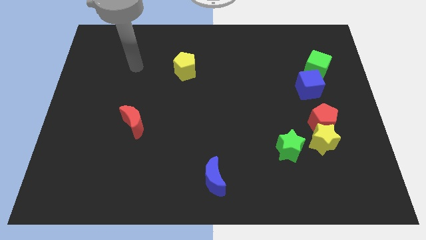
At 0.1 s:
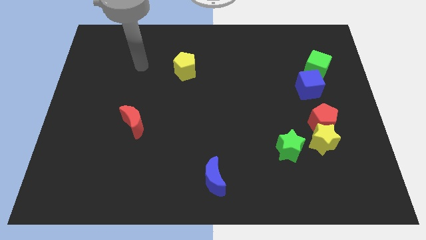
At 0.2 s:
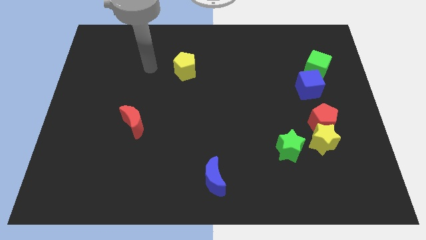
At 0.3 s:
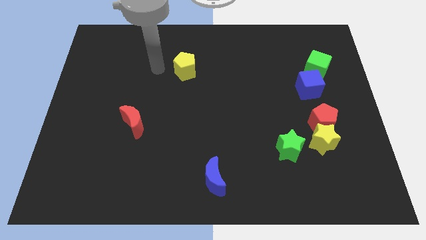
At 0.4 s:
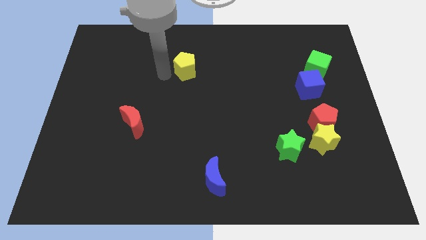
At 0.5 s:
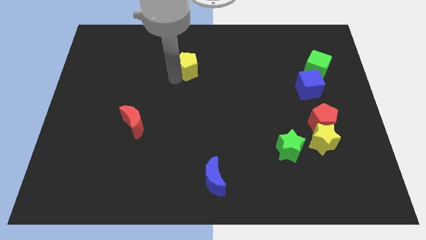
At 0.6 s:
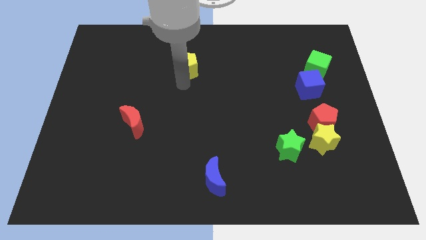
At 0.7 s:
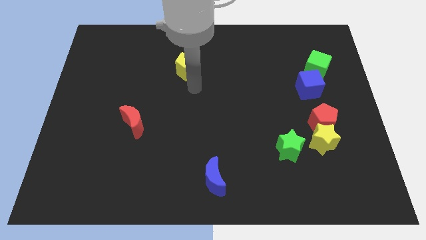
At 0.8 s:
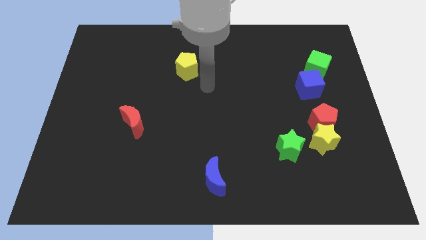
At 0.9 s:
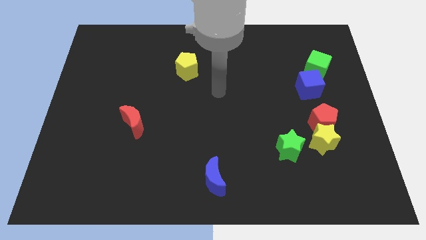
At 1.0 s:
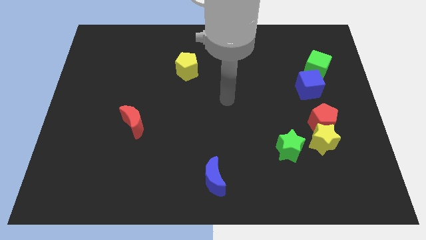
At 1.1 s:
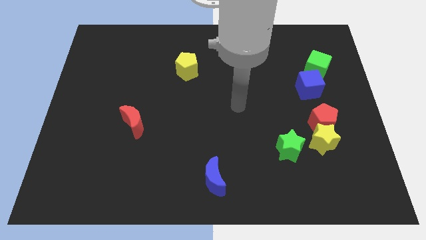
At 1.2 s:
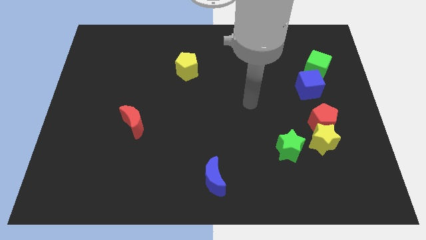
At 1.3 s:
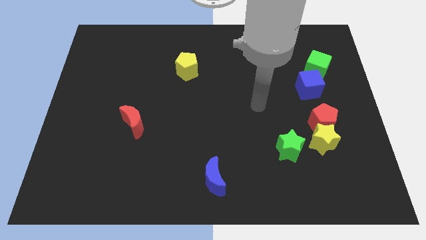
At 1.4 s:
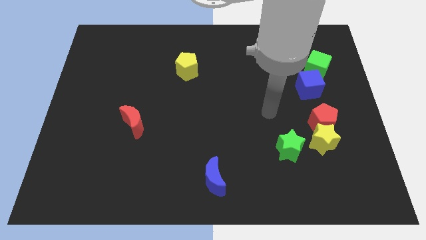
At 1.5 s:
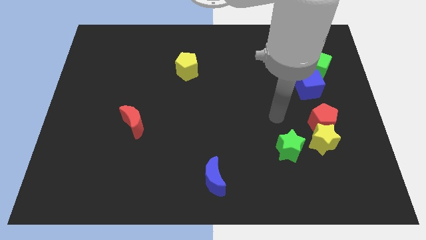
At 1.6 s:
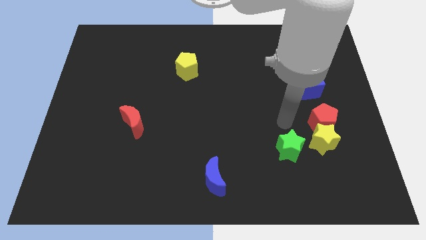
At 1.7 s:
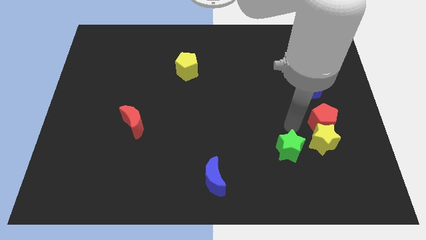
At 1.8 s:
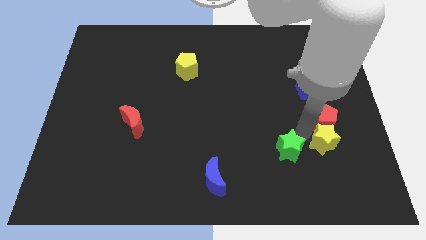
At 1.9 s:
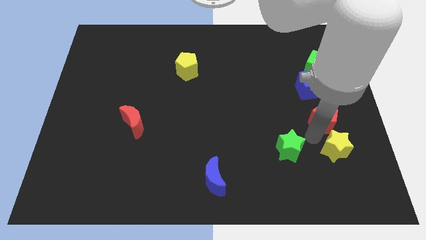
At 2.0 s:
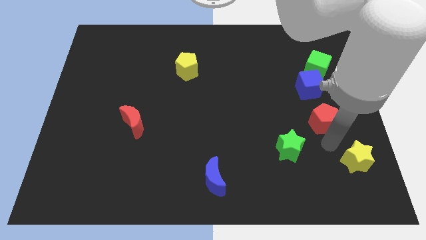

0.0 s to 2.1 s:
separate the red pentagon from the yellow star

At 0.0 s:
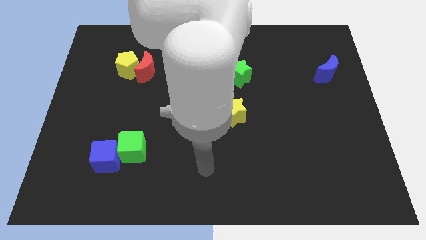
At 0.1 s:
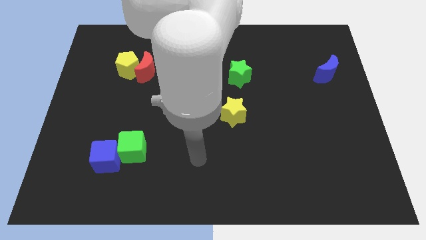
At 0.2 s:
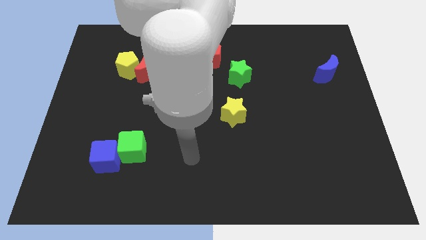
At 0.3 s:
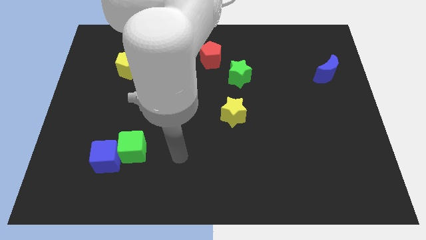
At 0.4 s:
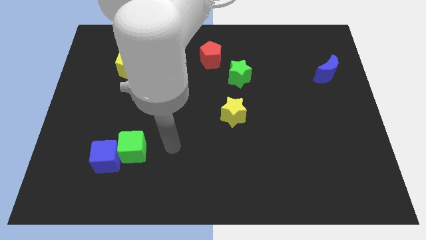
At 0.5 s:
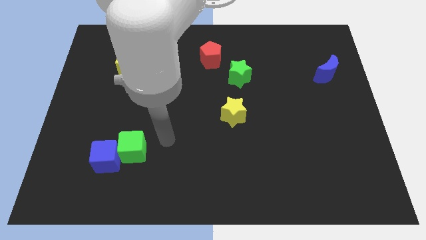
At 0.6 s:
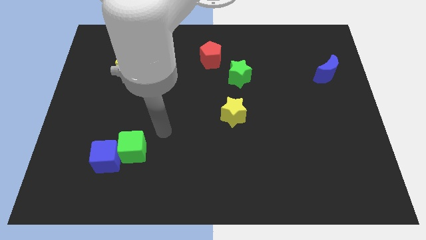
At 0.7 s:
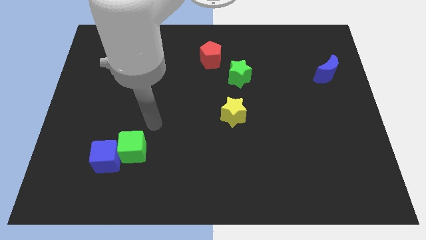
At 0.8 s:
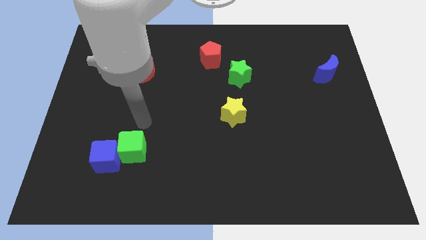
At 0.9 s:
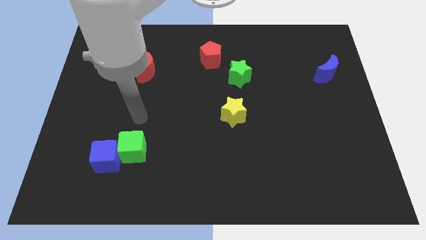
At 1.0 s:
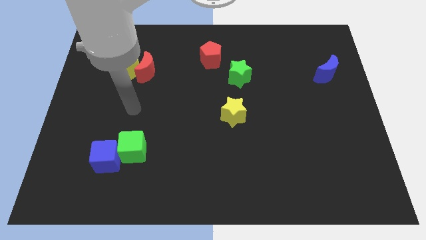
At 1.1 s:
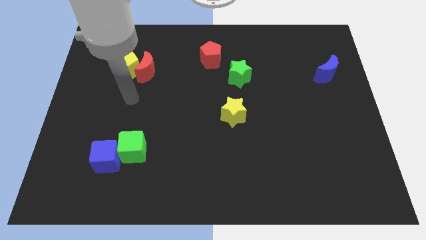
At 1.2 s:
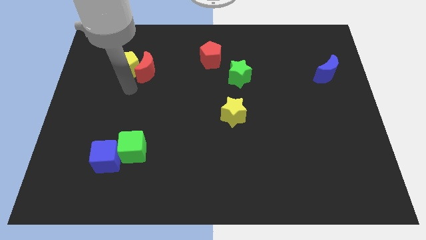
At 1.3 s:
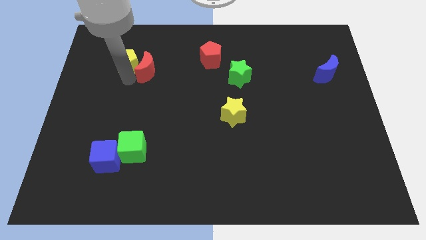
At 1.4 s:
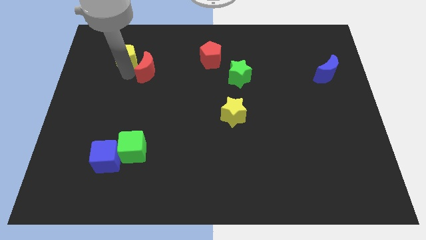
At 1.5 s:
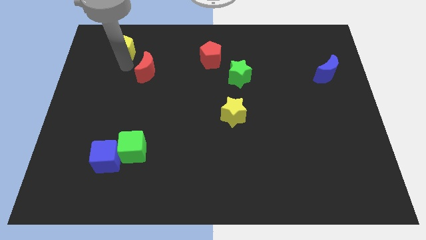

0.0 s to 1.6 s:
pull the red moon apart from the yellow pentagon

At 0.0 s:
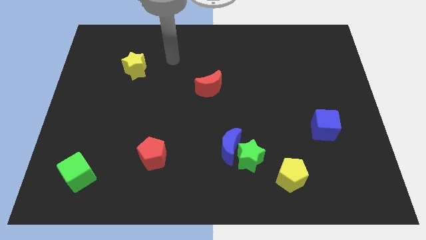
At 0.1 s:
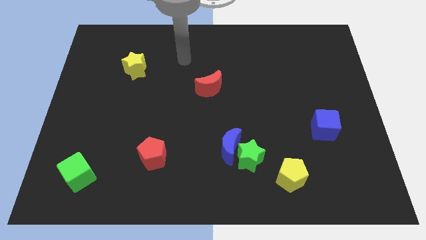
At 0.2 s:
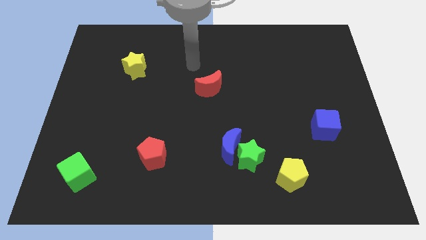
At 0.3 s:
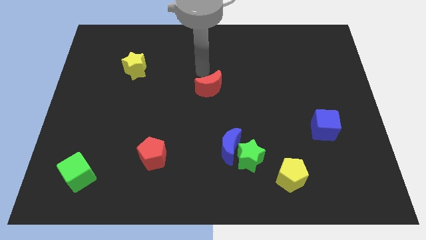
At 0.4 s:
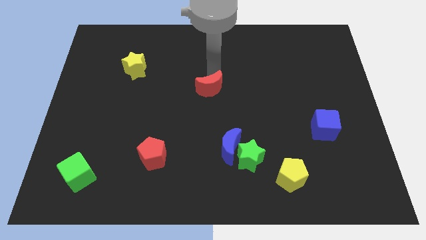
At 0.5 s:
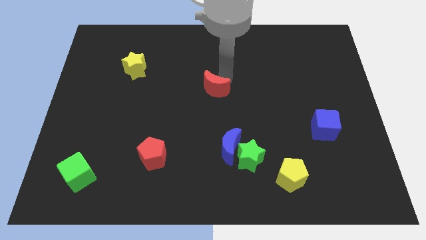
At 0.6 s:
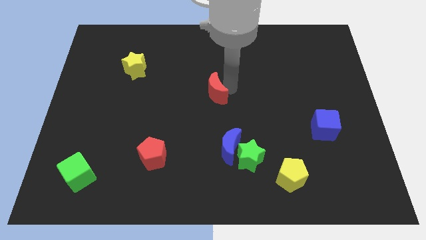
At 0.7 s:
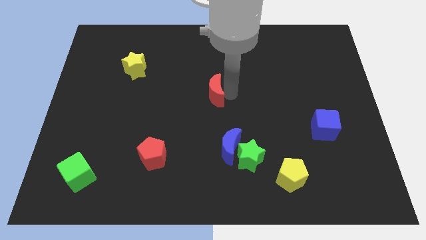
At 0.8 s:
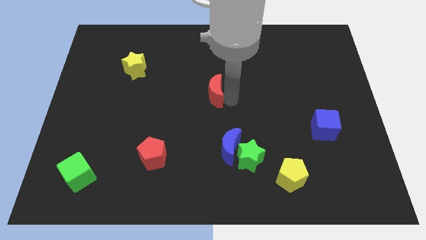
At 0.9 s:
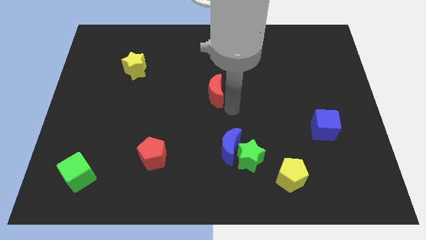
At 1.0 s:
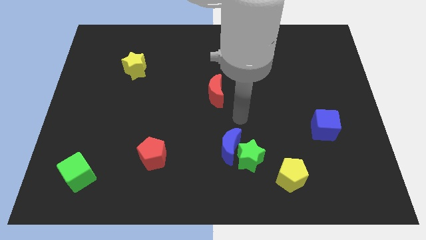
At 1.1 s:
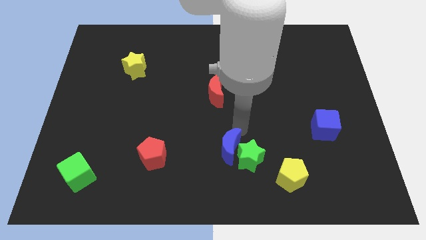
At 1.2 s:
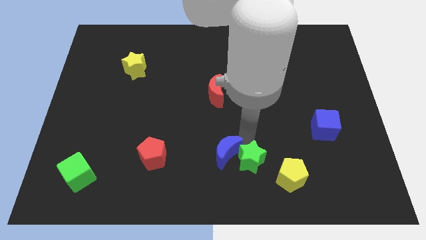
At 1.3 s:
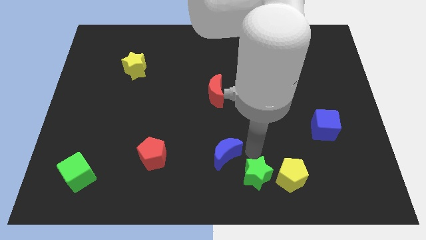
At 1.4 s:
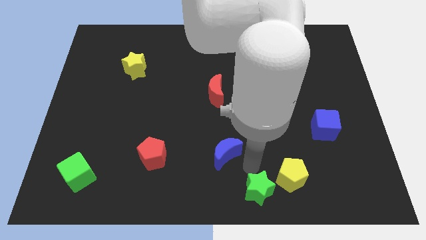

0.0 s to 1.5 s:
pull the blue moon apart from the green star

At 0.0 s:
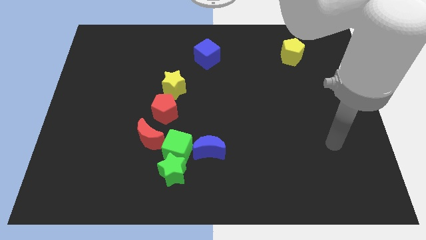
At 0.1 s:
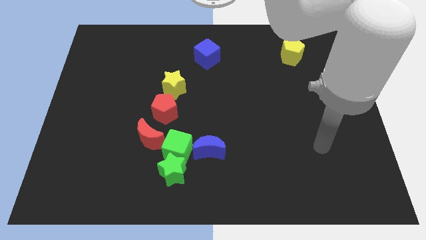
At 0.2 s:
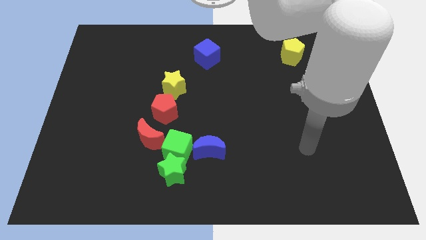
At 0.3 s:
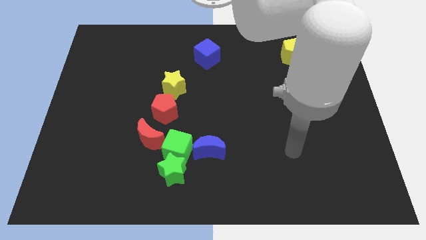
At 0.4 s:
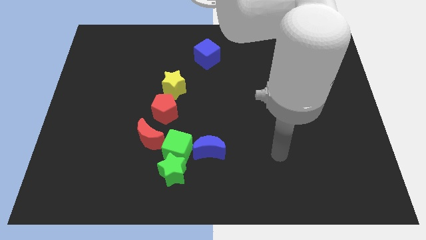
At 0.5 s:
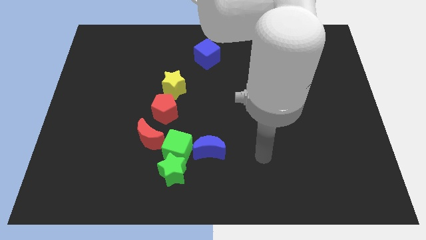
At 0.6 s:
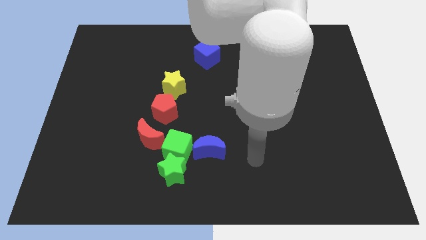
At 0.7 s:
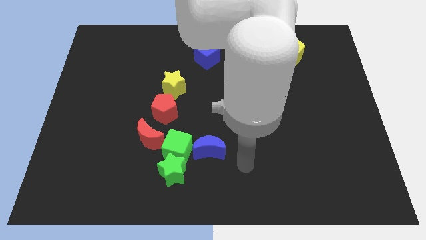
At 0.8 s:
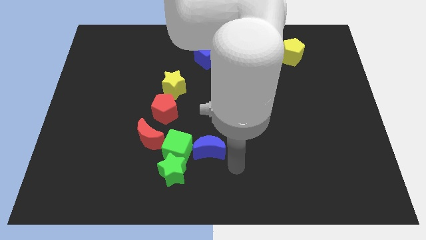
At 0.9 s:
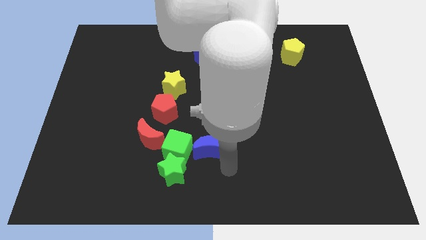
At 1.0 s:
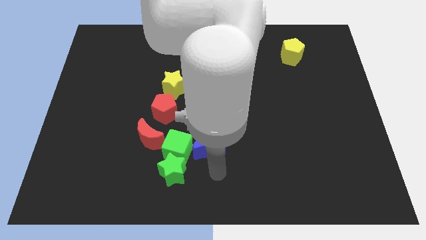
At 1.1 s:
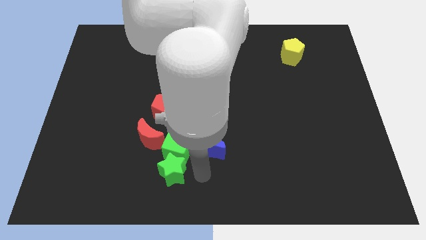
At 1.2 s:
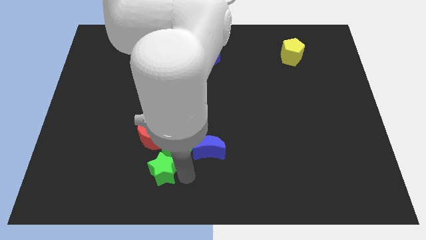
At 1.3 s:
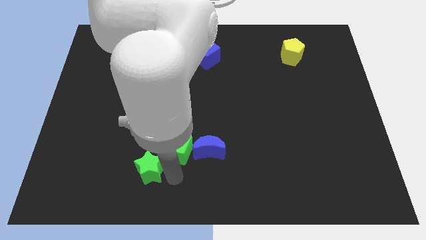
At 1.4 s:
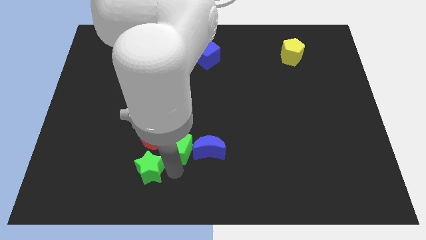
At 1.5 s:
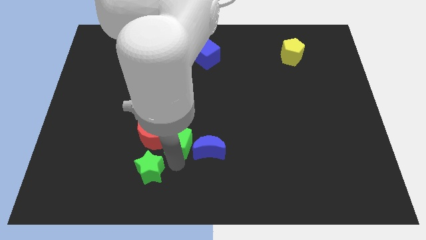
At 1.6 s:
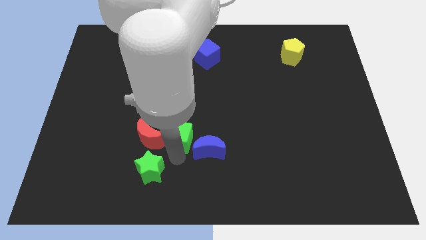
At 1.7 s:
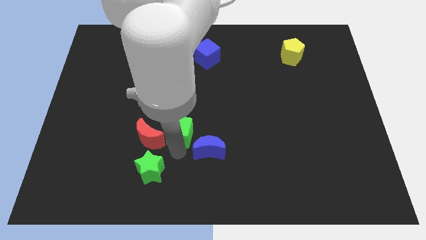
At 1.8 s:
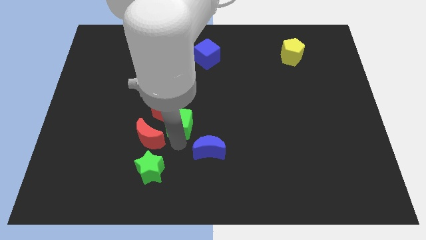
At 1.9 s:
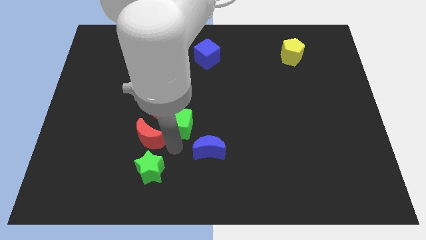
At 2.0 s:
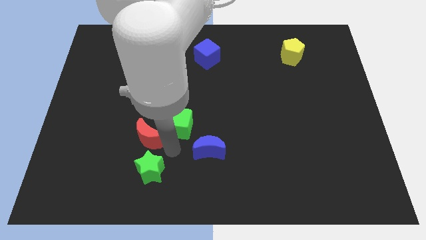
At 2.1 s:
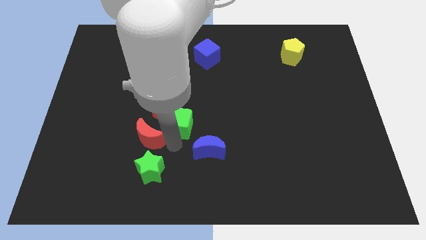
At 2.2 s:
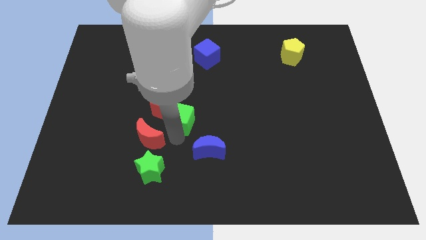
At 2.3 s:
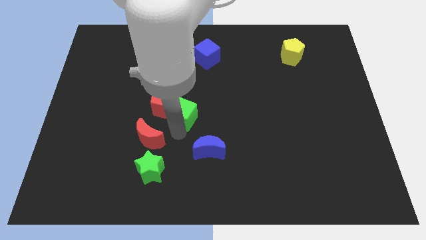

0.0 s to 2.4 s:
pull the green cube apart from the group of blocks

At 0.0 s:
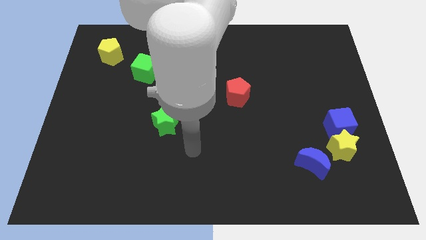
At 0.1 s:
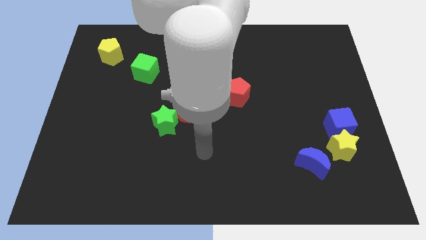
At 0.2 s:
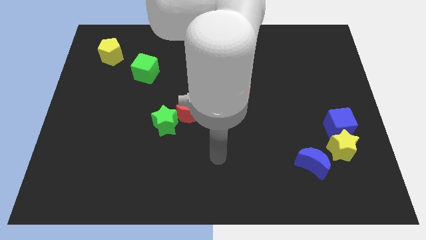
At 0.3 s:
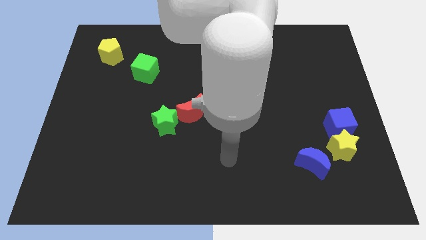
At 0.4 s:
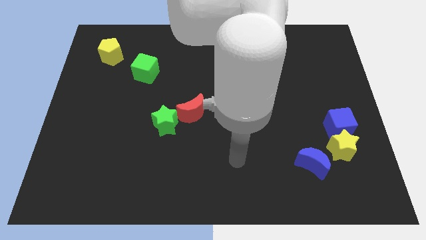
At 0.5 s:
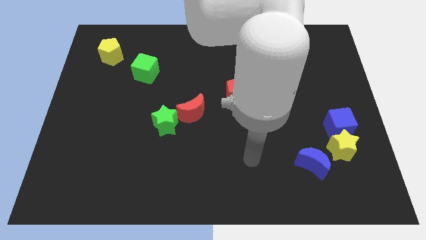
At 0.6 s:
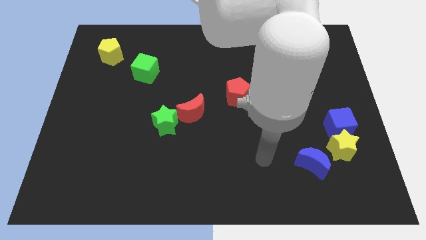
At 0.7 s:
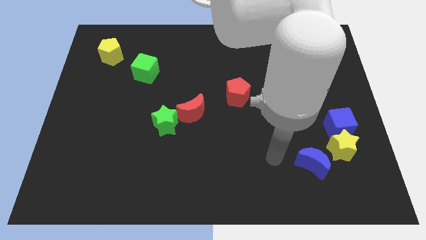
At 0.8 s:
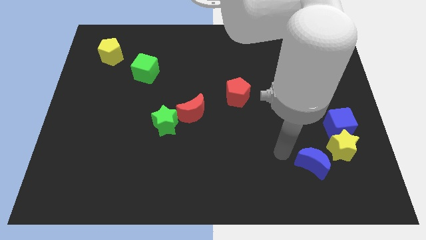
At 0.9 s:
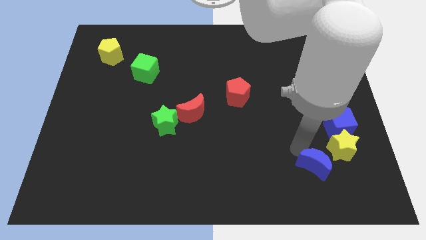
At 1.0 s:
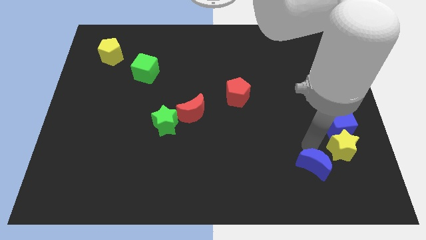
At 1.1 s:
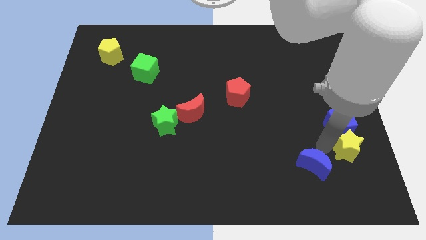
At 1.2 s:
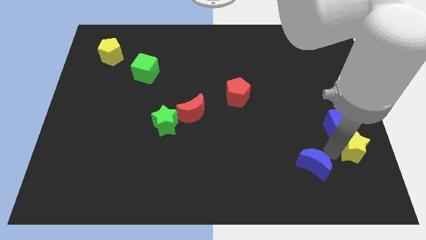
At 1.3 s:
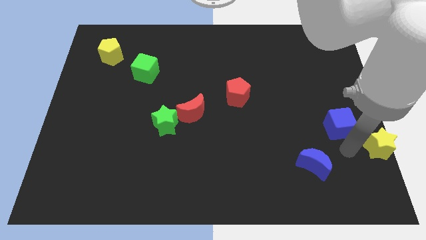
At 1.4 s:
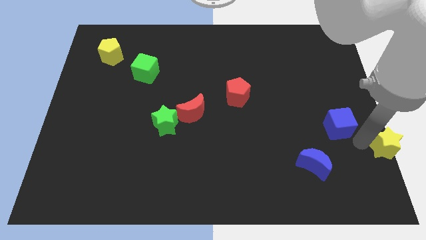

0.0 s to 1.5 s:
separate the blue cube from the yellow star

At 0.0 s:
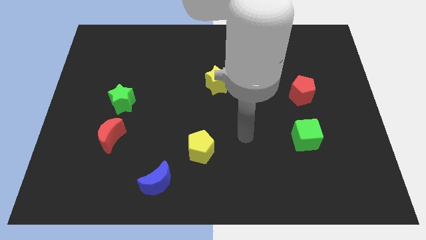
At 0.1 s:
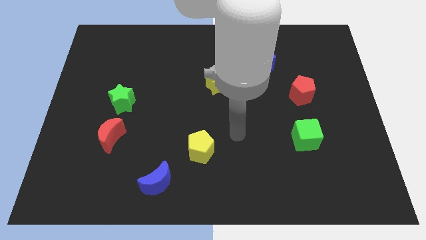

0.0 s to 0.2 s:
pull the red moon apart from the green star
